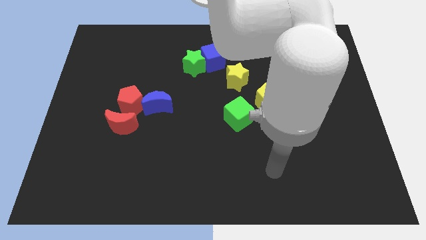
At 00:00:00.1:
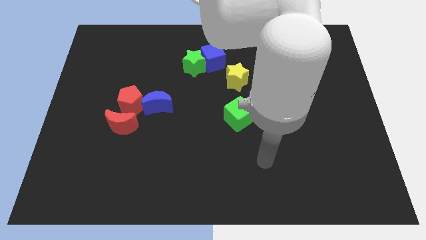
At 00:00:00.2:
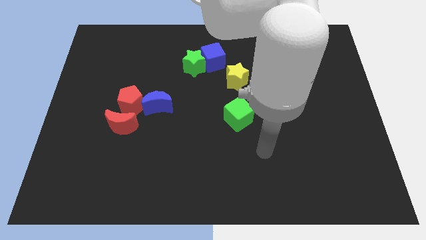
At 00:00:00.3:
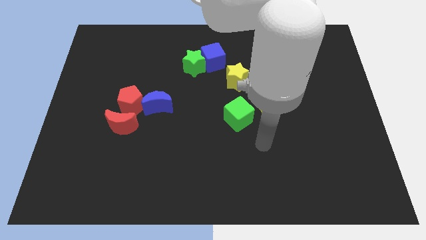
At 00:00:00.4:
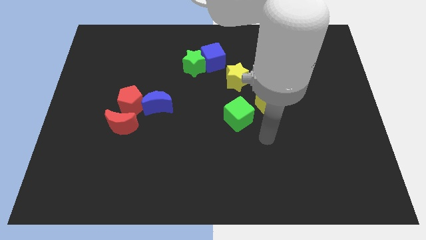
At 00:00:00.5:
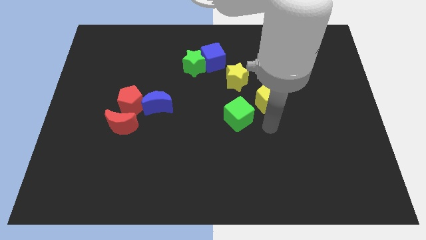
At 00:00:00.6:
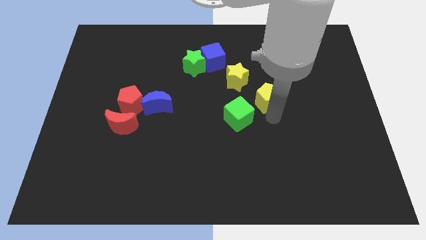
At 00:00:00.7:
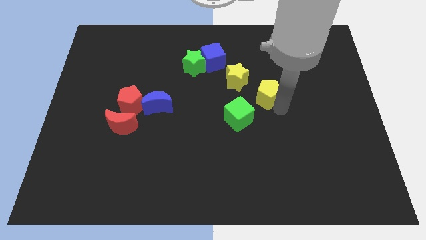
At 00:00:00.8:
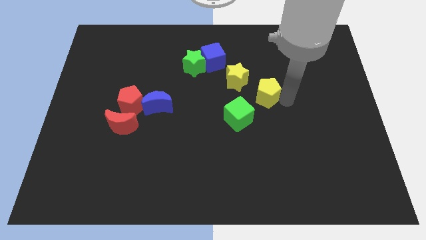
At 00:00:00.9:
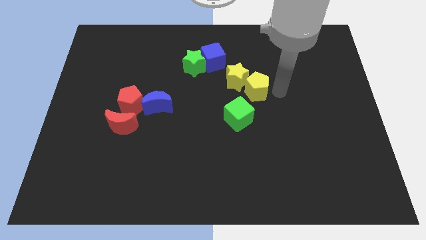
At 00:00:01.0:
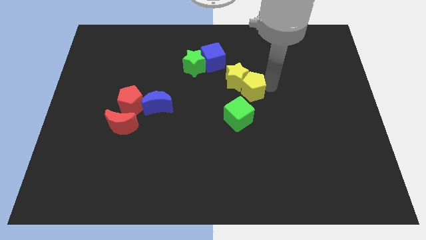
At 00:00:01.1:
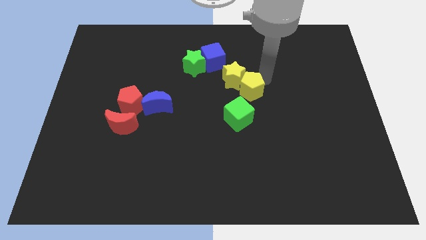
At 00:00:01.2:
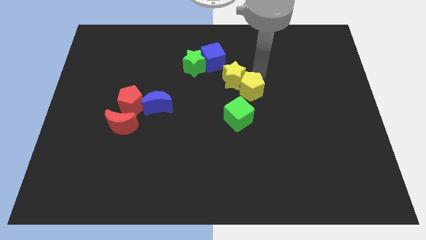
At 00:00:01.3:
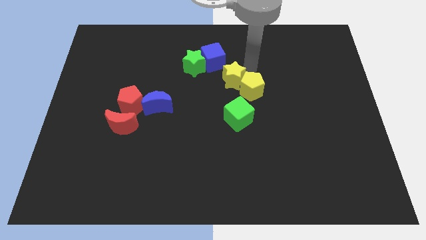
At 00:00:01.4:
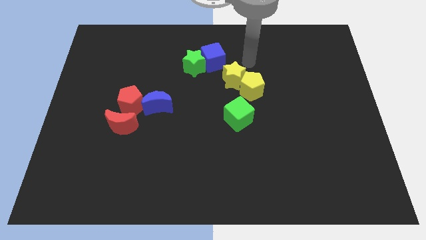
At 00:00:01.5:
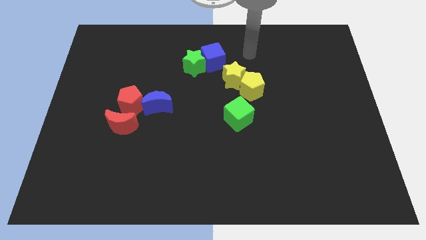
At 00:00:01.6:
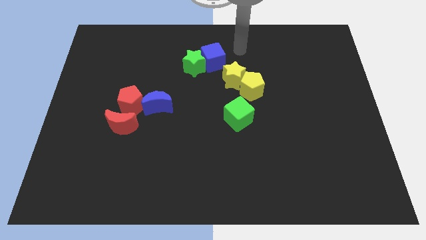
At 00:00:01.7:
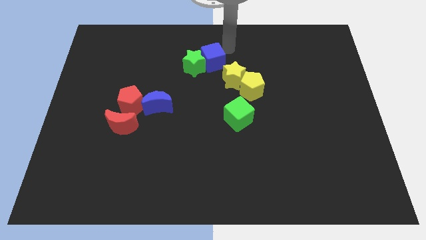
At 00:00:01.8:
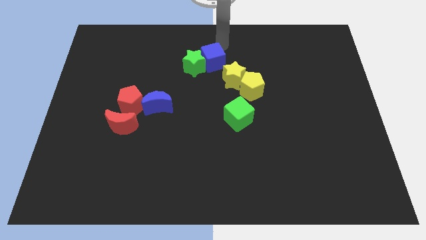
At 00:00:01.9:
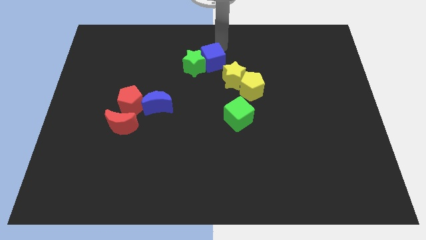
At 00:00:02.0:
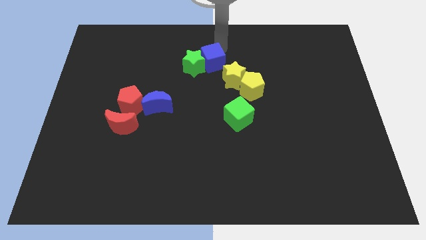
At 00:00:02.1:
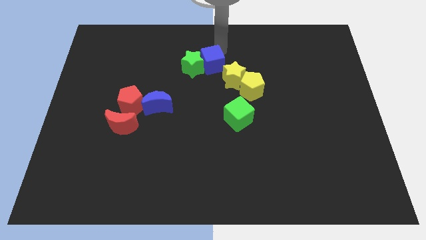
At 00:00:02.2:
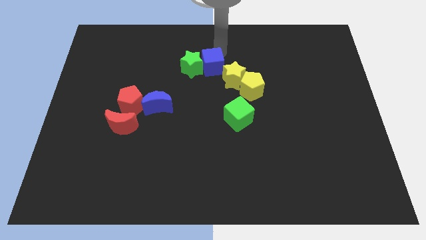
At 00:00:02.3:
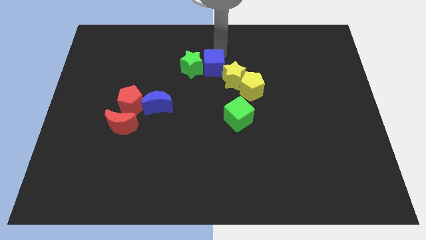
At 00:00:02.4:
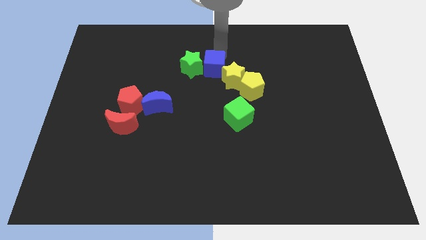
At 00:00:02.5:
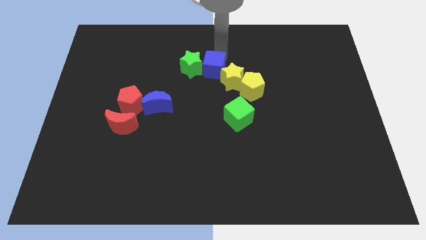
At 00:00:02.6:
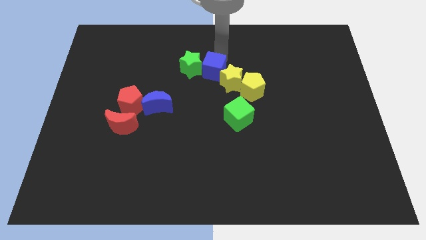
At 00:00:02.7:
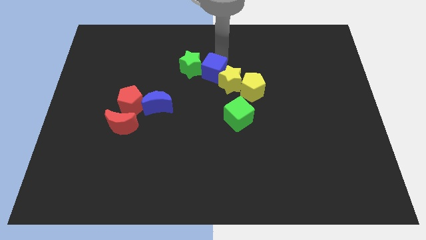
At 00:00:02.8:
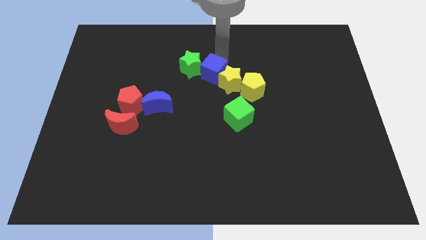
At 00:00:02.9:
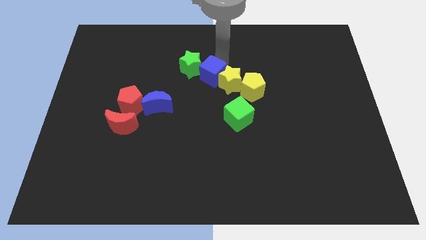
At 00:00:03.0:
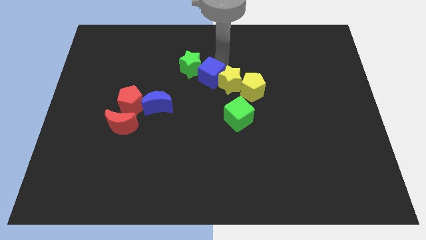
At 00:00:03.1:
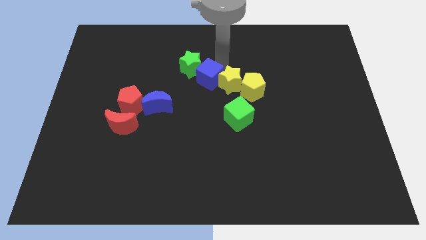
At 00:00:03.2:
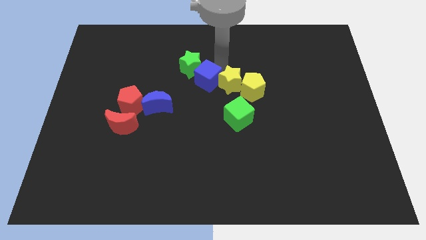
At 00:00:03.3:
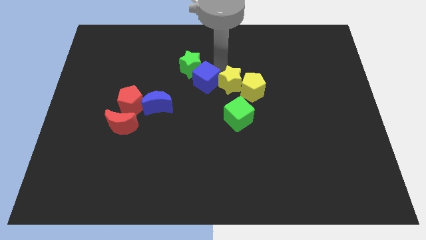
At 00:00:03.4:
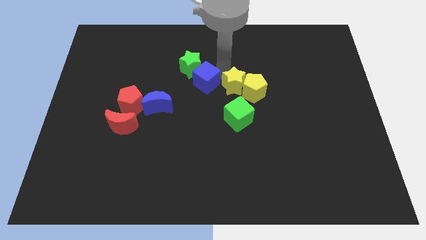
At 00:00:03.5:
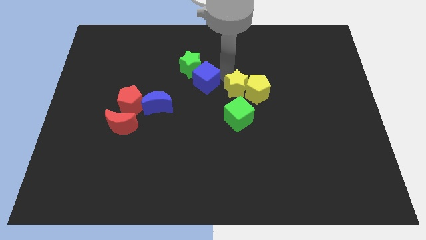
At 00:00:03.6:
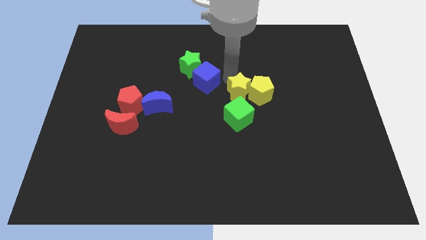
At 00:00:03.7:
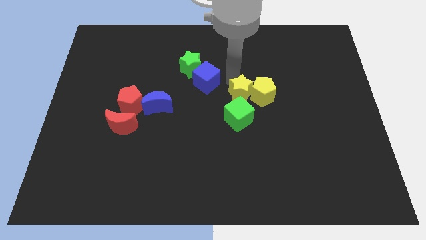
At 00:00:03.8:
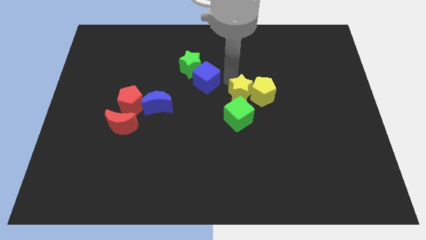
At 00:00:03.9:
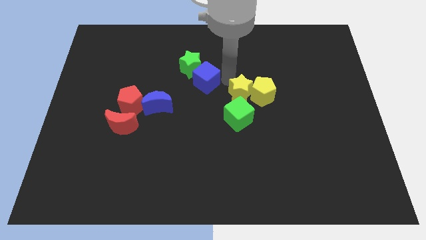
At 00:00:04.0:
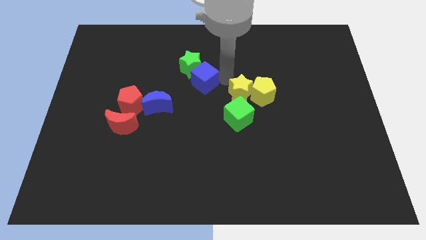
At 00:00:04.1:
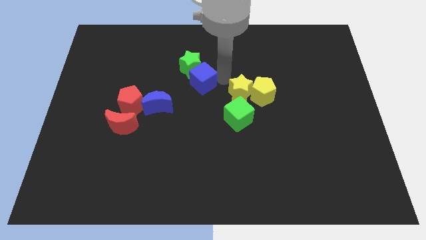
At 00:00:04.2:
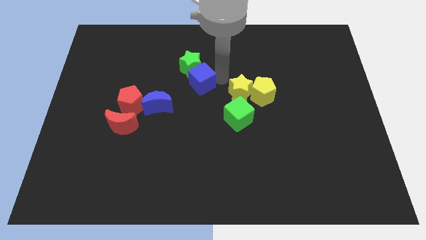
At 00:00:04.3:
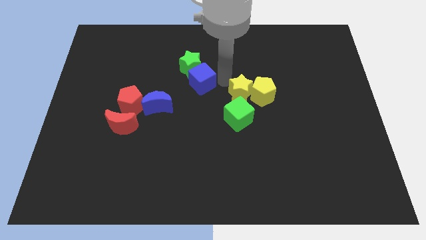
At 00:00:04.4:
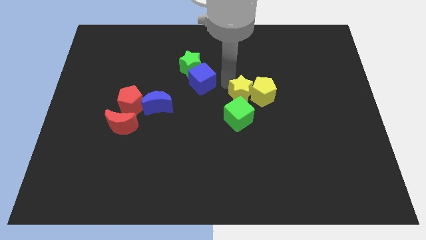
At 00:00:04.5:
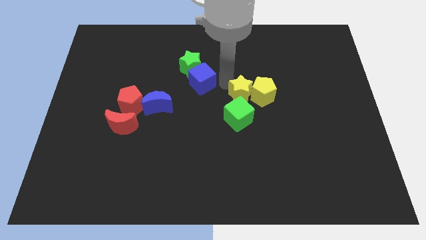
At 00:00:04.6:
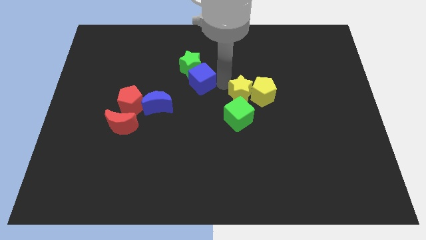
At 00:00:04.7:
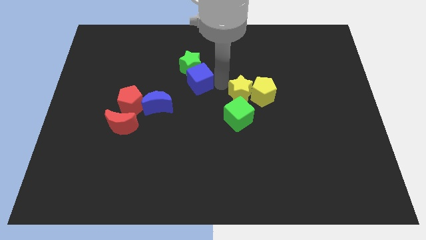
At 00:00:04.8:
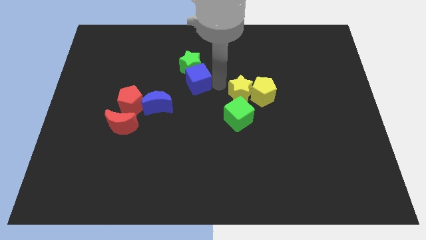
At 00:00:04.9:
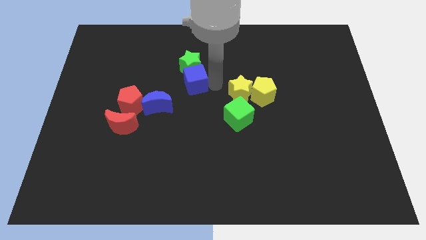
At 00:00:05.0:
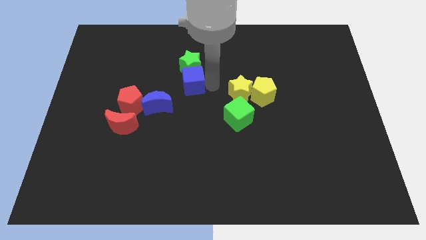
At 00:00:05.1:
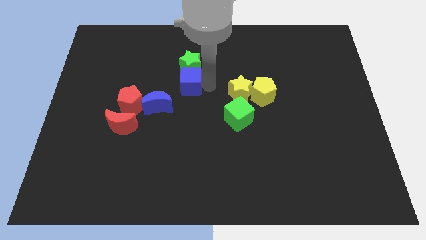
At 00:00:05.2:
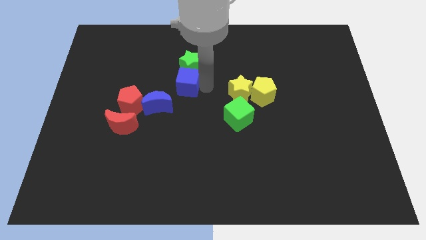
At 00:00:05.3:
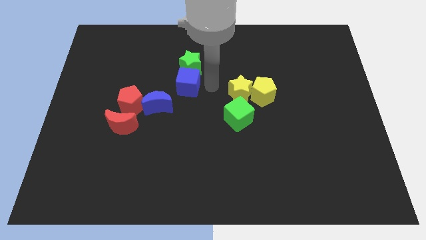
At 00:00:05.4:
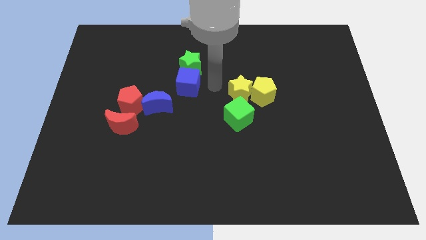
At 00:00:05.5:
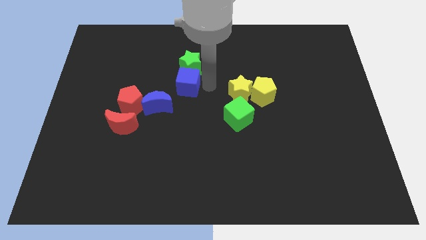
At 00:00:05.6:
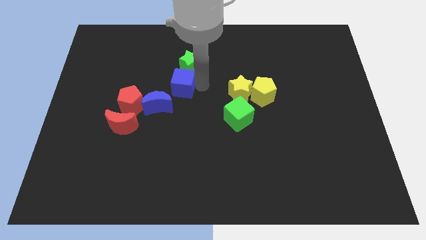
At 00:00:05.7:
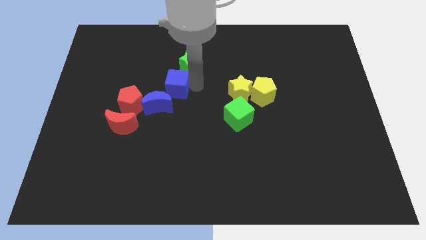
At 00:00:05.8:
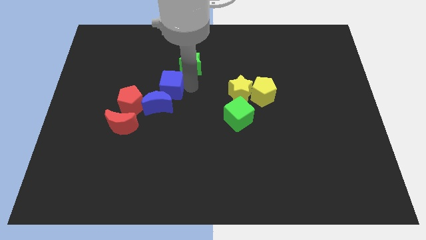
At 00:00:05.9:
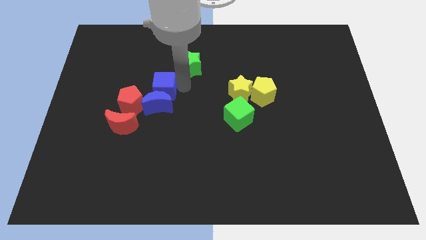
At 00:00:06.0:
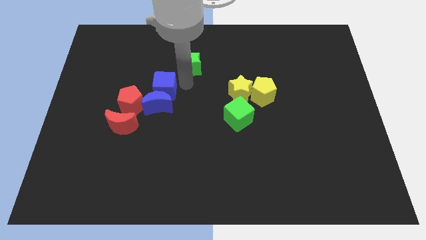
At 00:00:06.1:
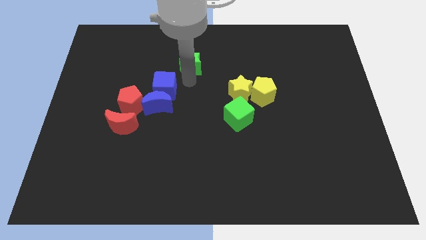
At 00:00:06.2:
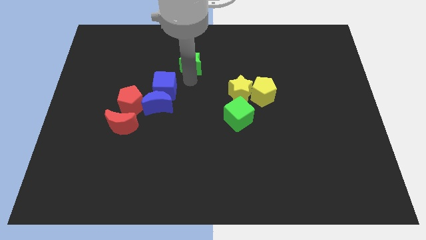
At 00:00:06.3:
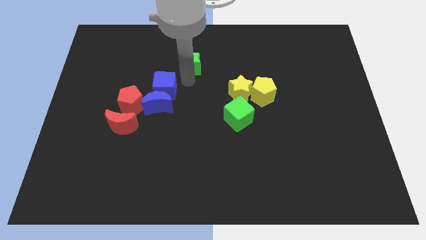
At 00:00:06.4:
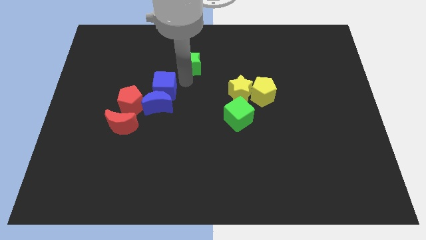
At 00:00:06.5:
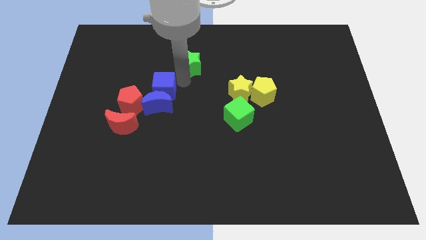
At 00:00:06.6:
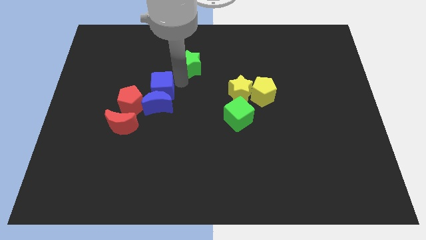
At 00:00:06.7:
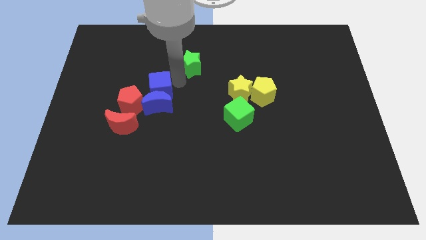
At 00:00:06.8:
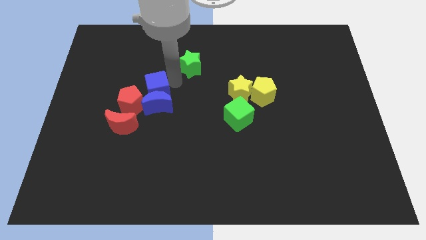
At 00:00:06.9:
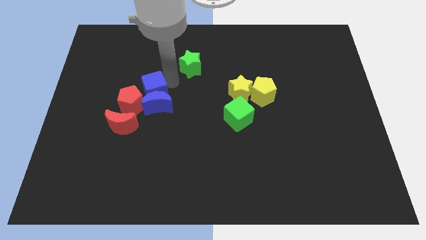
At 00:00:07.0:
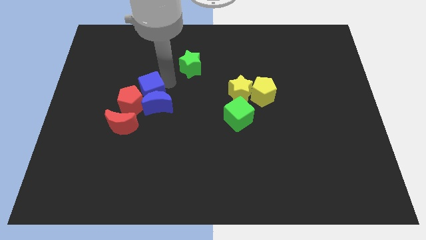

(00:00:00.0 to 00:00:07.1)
put the blue cube next to the red pentagon
